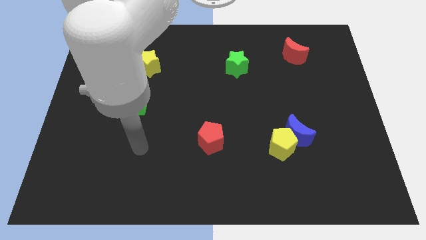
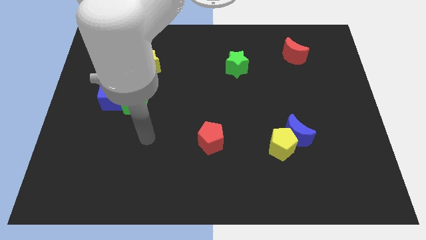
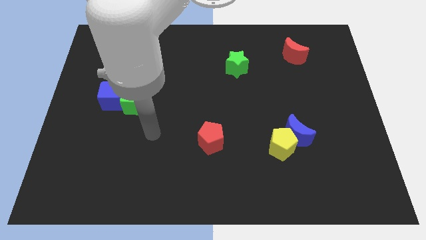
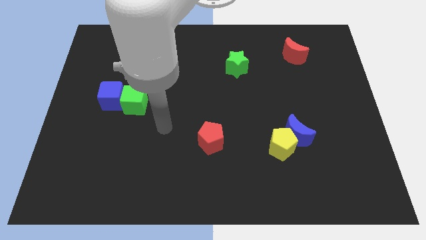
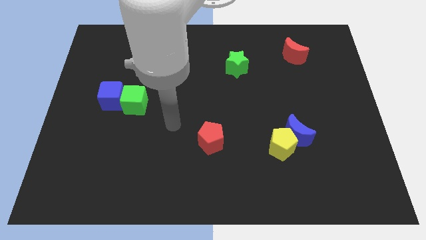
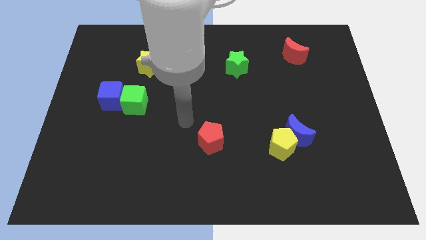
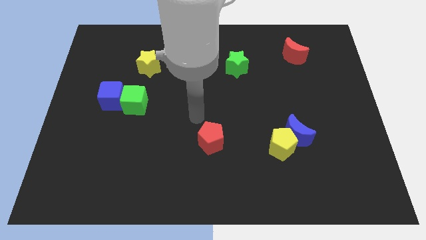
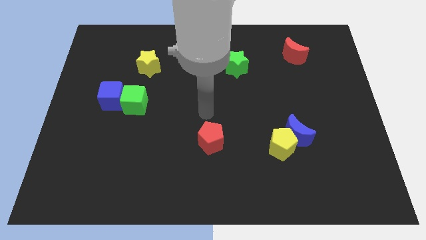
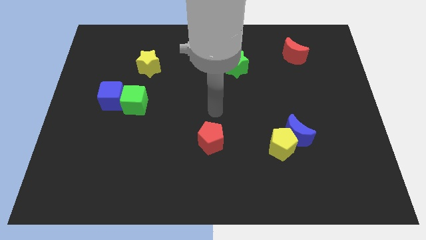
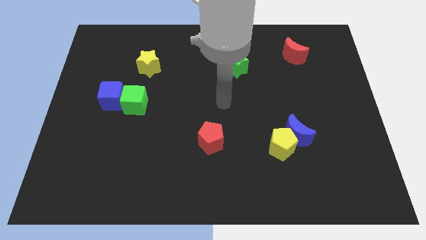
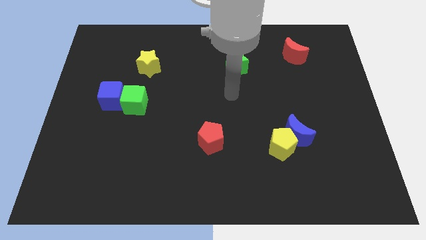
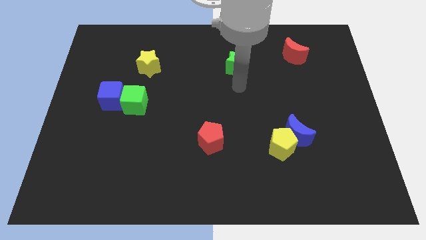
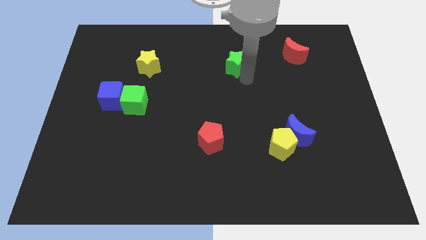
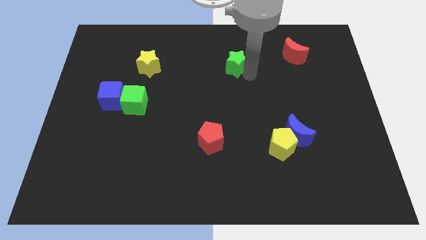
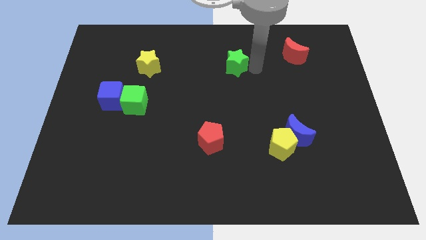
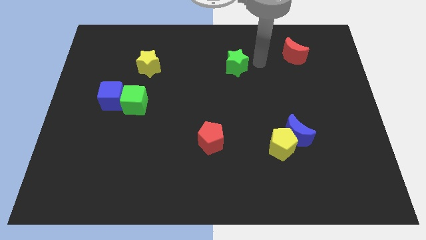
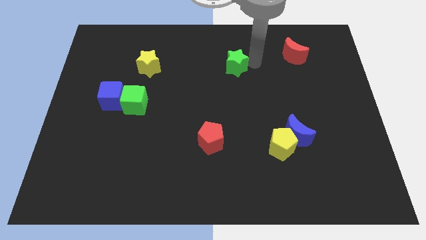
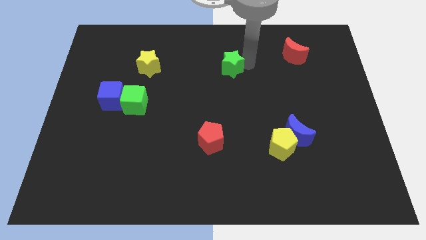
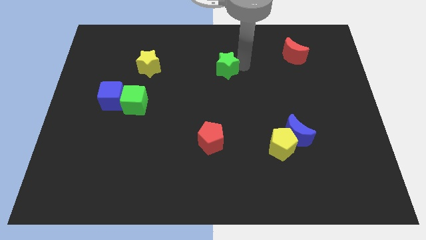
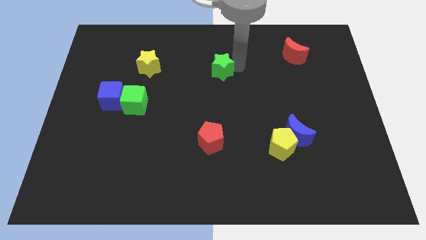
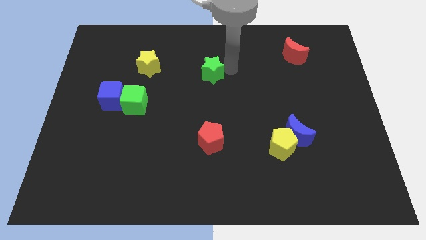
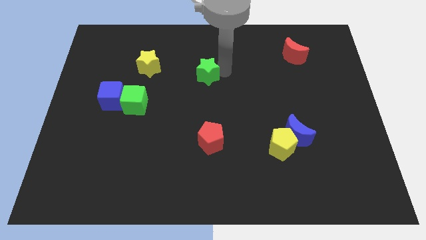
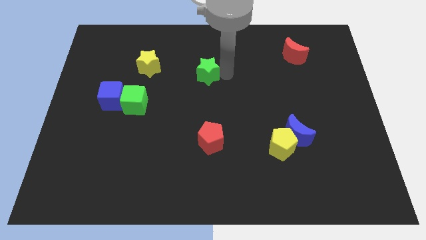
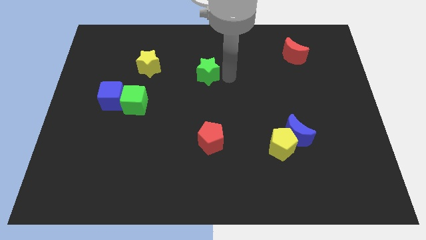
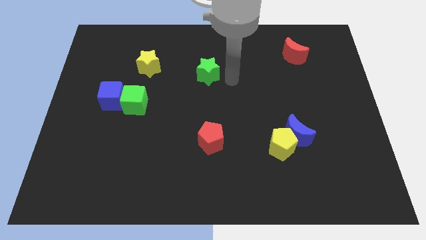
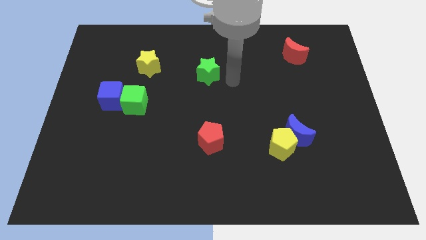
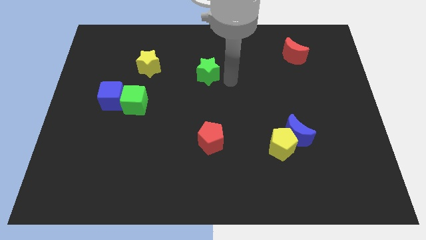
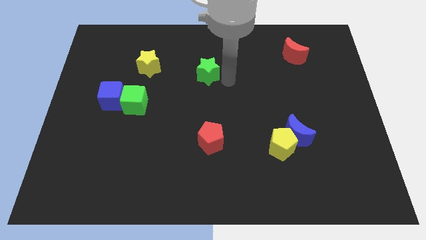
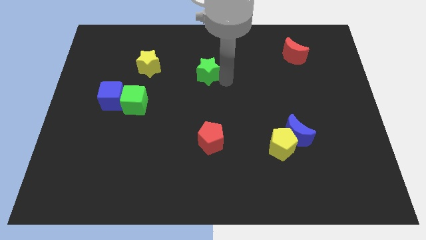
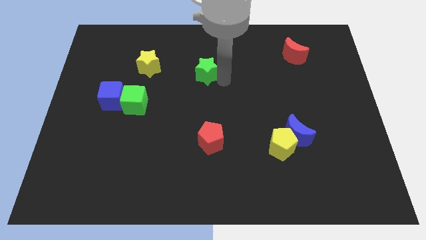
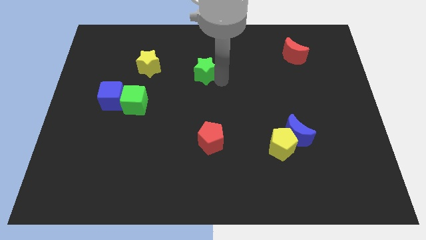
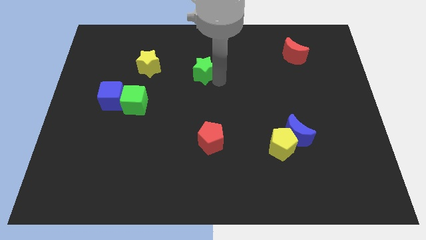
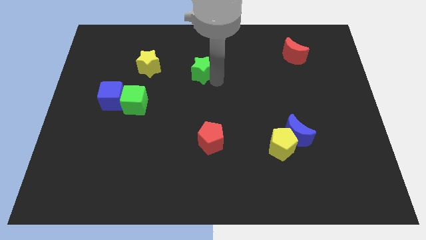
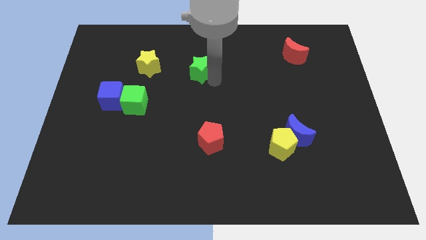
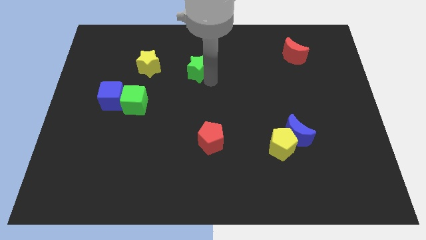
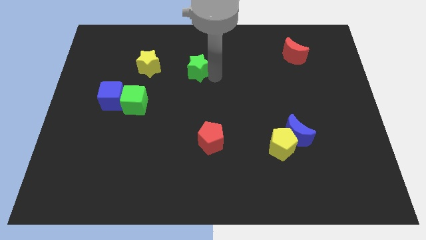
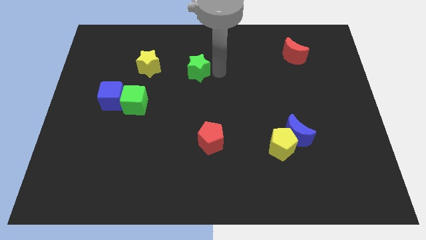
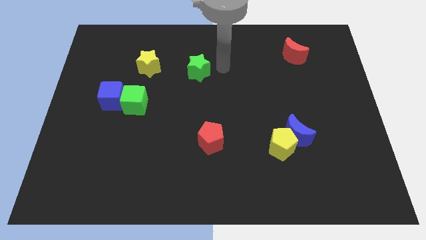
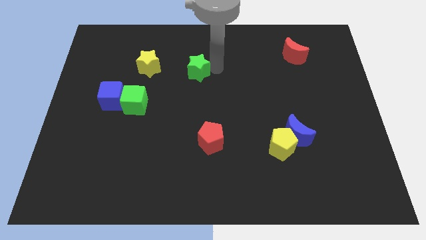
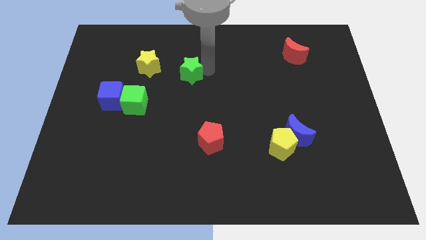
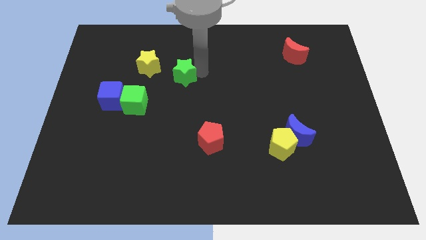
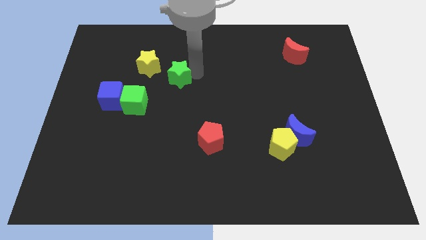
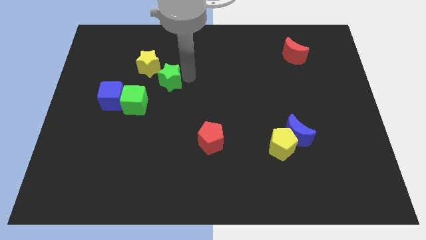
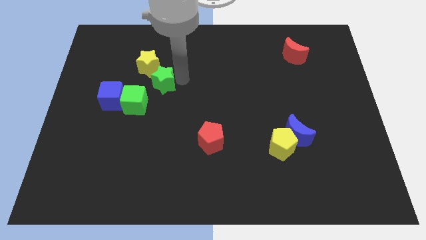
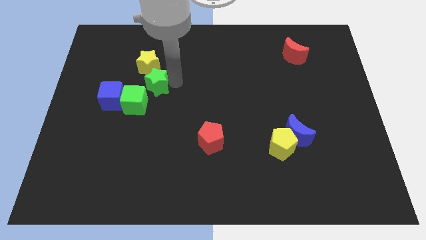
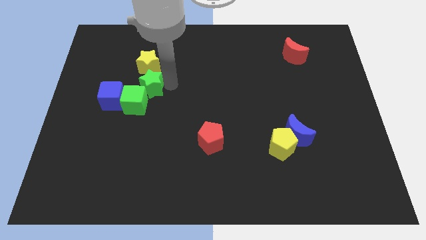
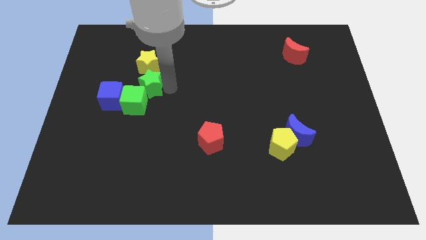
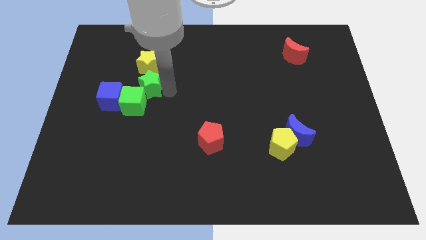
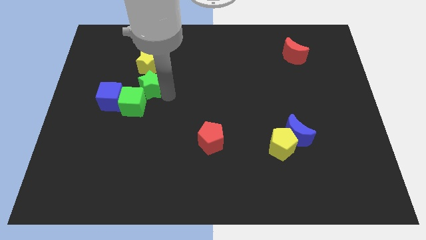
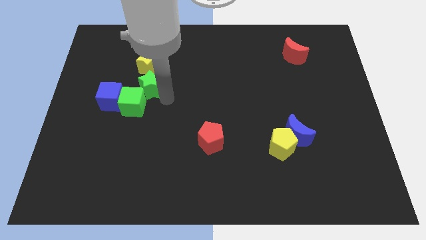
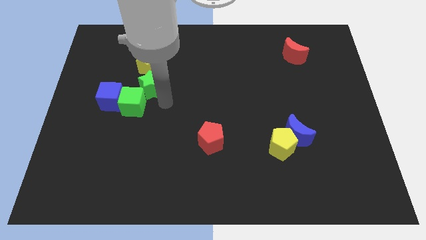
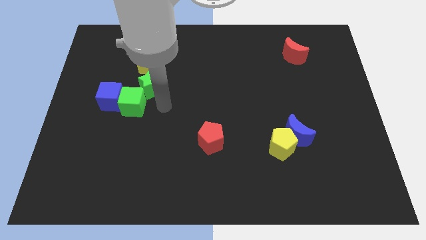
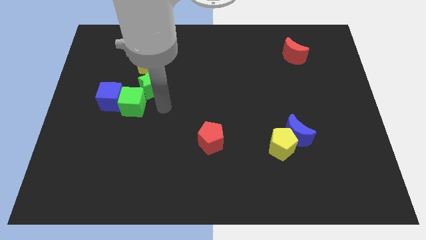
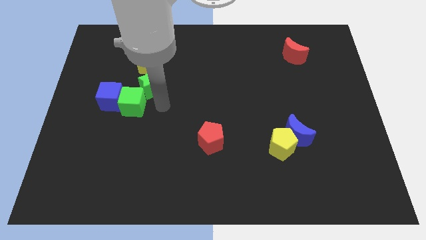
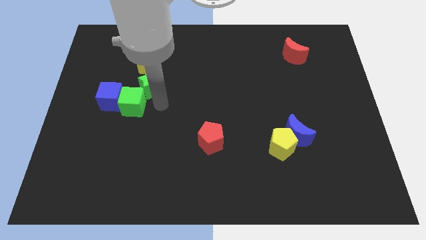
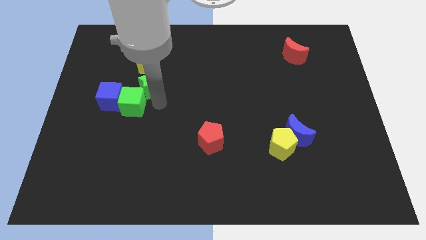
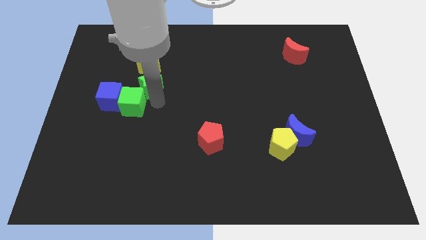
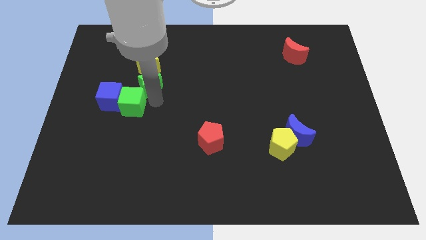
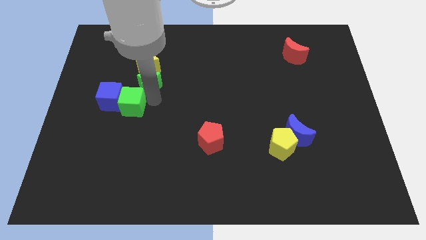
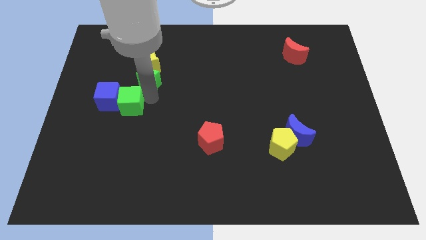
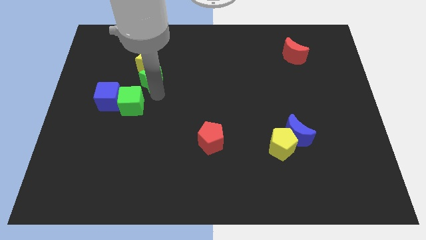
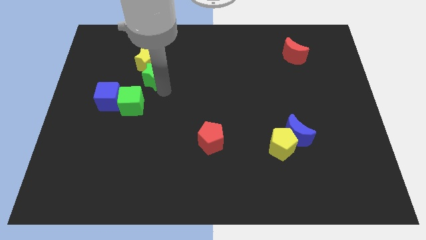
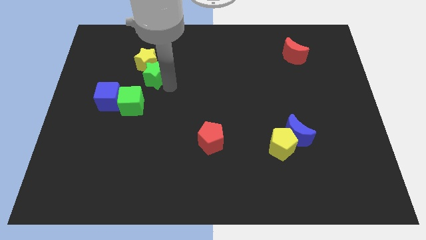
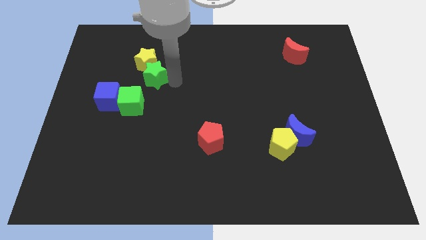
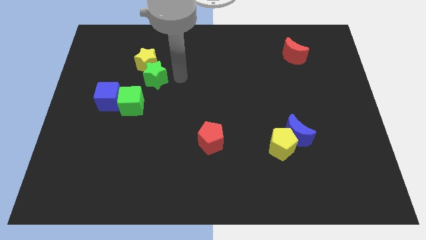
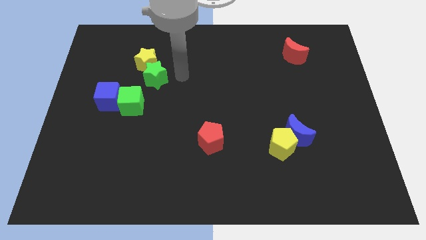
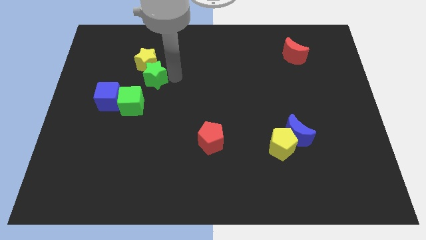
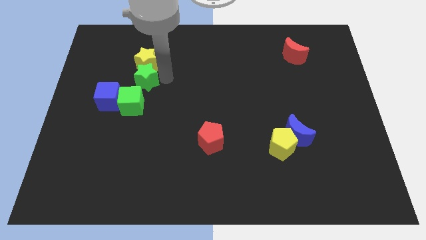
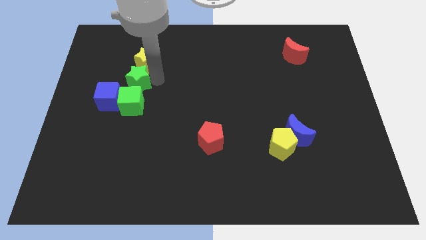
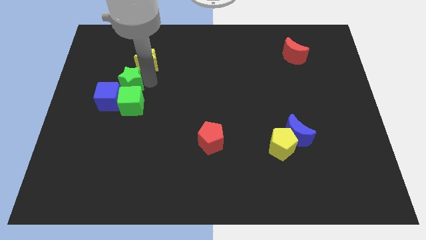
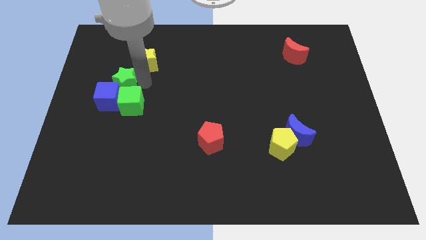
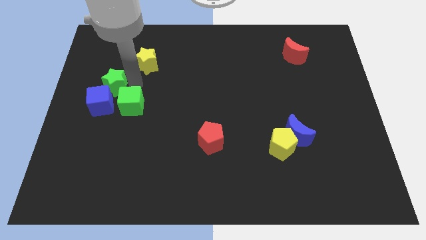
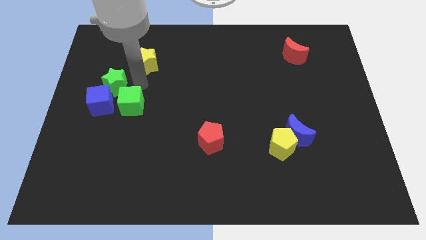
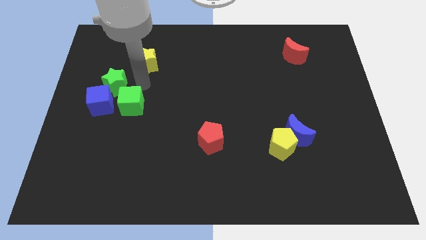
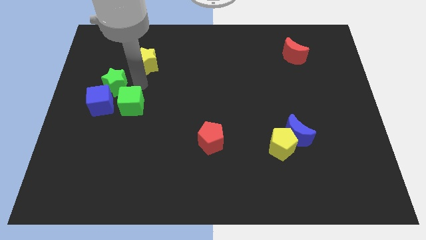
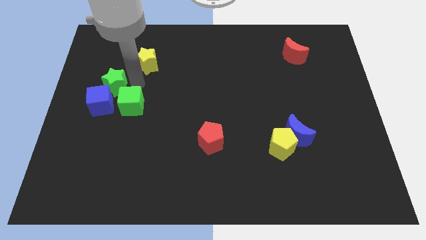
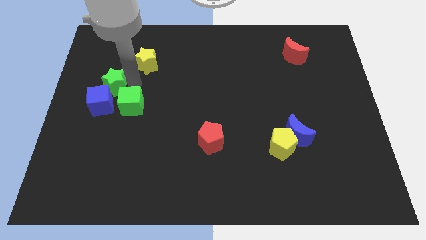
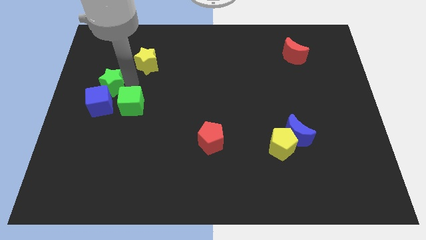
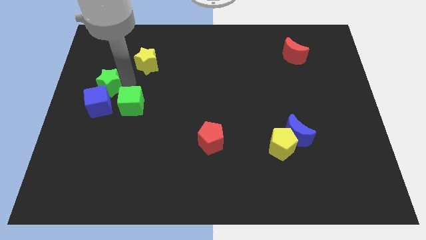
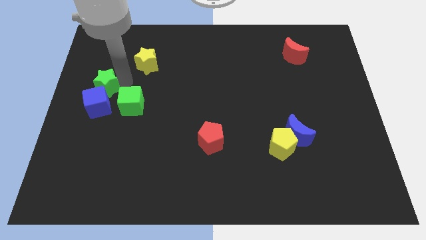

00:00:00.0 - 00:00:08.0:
move the green star to the left side of the board
